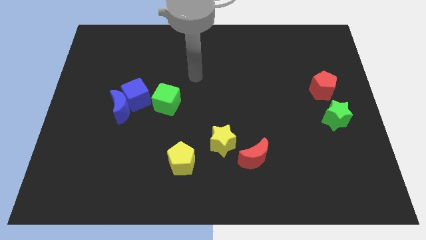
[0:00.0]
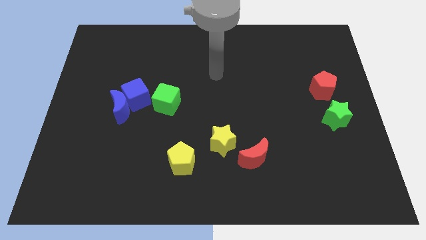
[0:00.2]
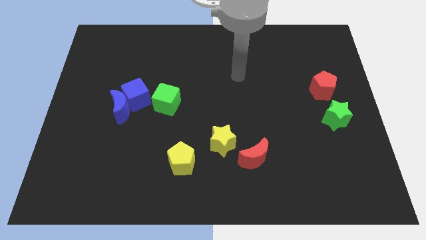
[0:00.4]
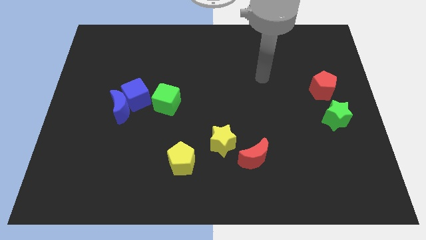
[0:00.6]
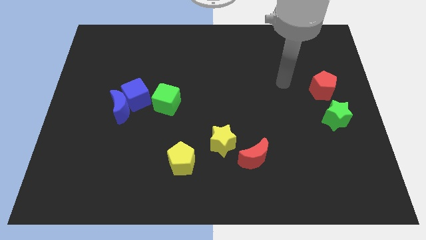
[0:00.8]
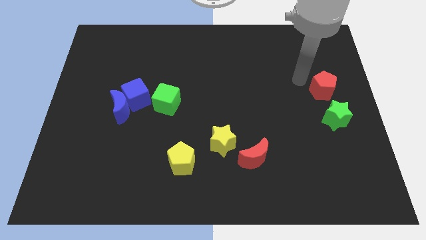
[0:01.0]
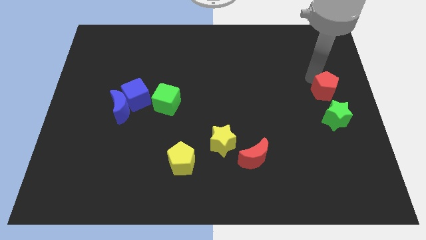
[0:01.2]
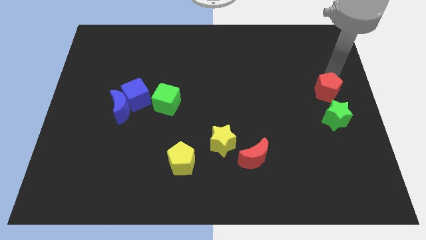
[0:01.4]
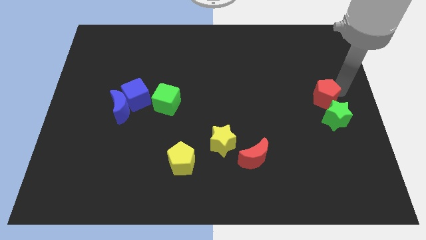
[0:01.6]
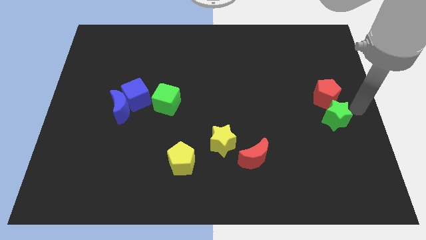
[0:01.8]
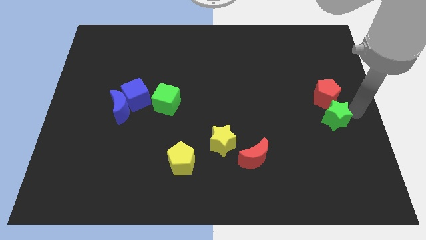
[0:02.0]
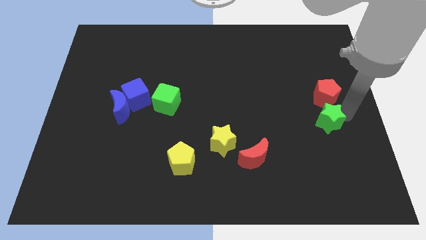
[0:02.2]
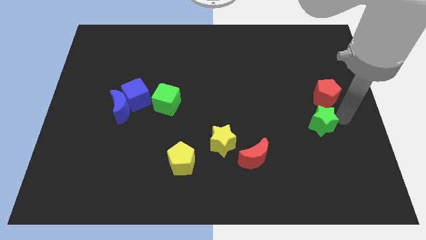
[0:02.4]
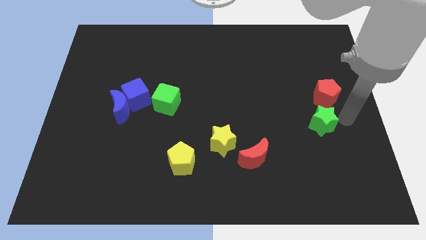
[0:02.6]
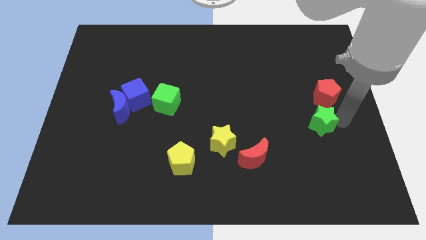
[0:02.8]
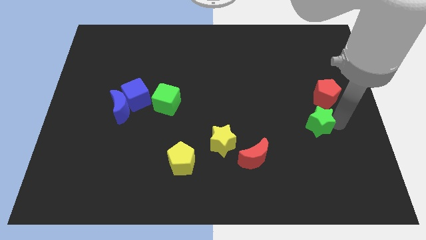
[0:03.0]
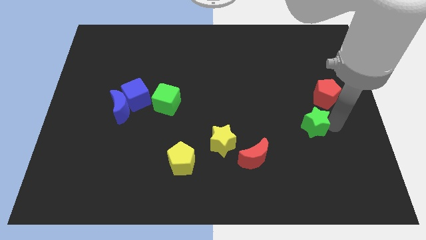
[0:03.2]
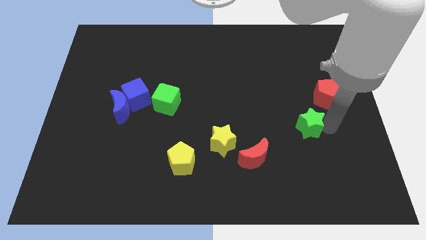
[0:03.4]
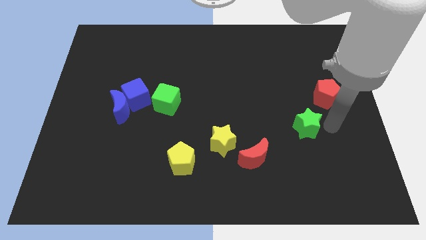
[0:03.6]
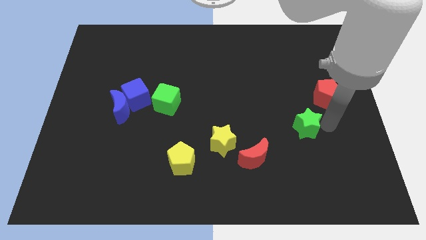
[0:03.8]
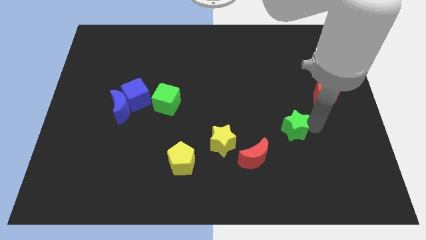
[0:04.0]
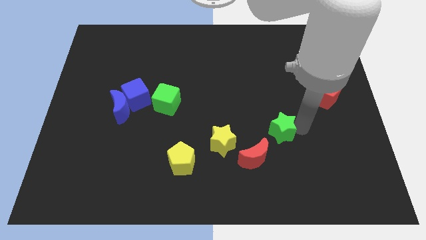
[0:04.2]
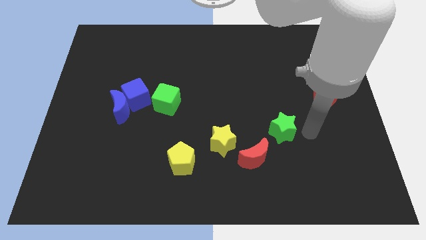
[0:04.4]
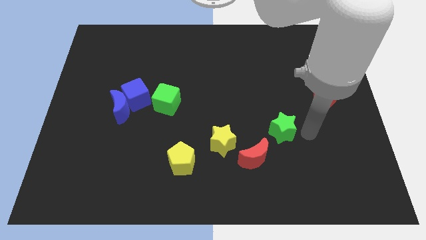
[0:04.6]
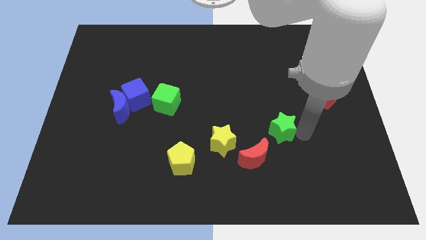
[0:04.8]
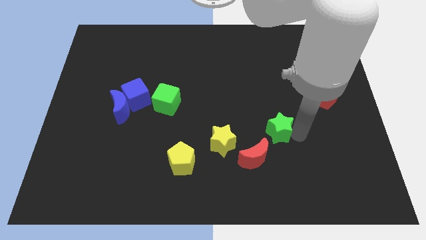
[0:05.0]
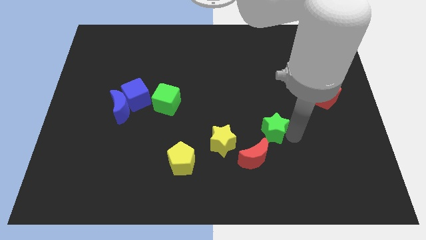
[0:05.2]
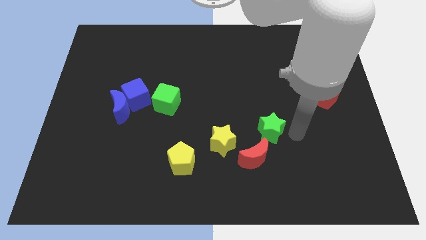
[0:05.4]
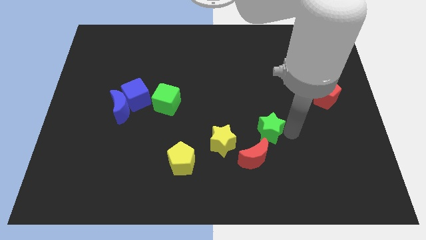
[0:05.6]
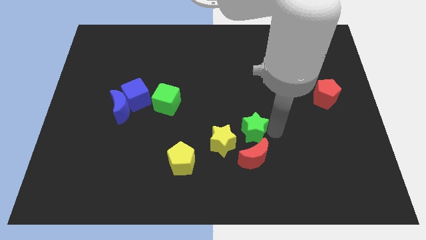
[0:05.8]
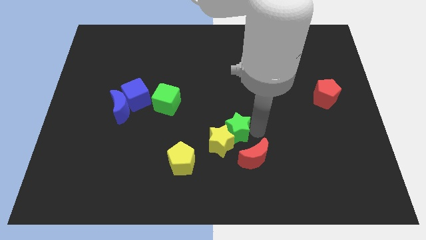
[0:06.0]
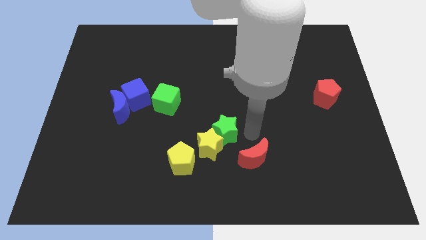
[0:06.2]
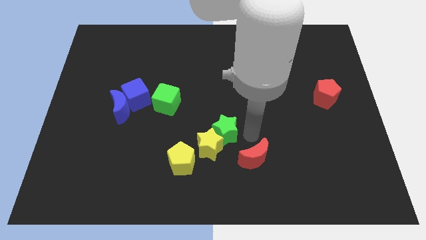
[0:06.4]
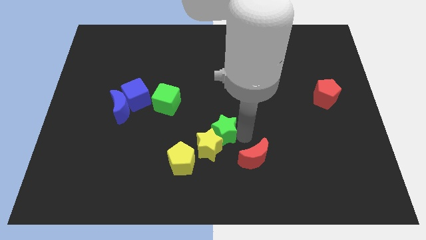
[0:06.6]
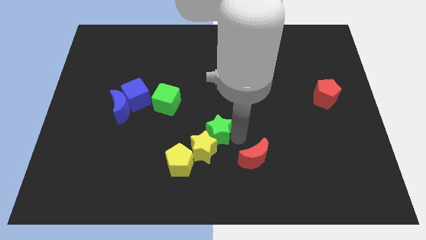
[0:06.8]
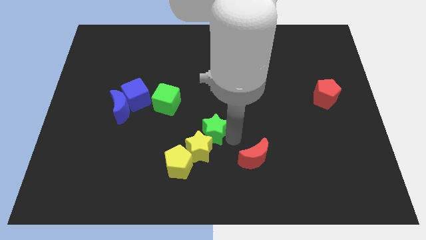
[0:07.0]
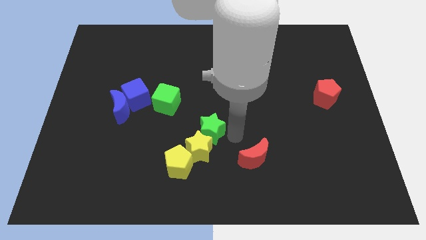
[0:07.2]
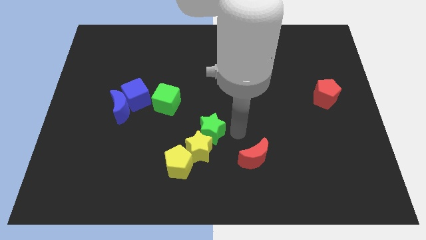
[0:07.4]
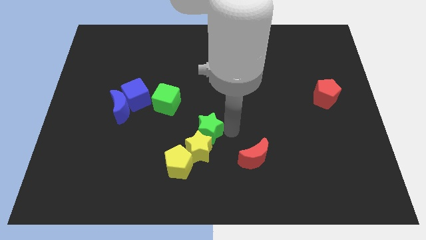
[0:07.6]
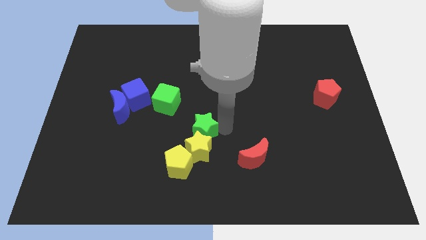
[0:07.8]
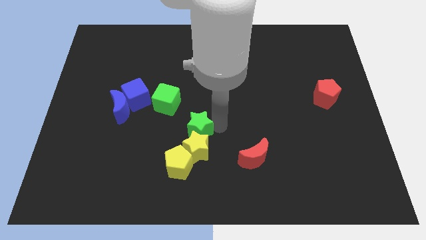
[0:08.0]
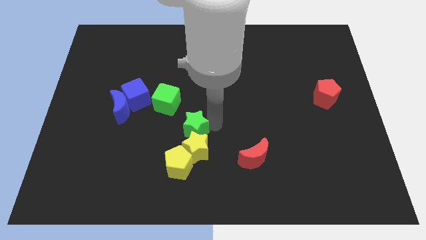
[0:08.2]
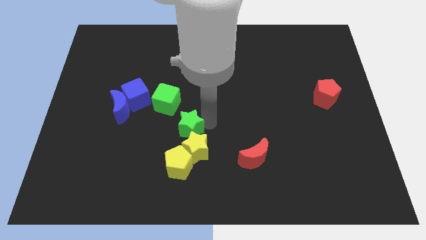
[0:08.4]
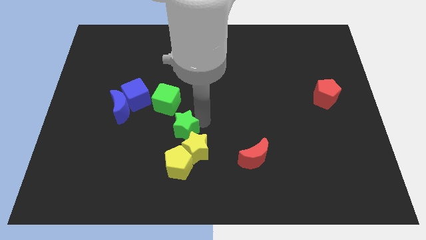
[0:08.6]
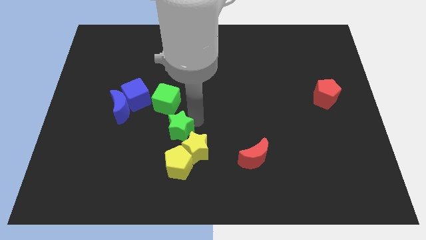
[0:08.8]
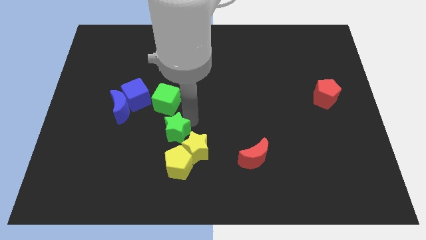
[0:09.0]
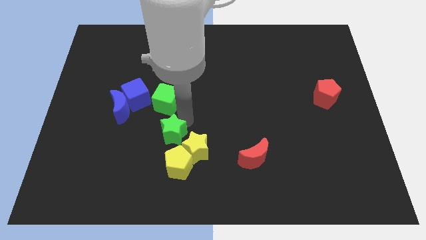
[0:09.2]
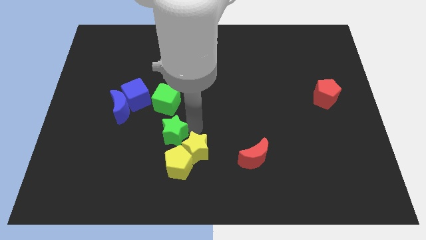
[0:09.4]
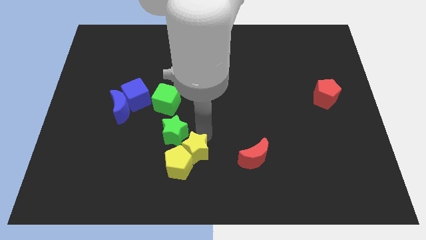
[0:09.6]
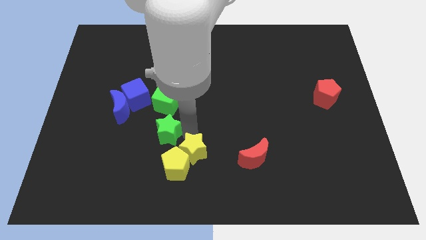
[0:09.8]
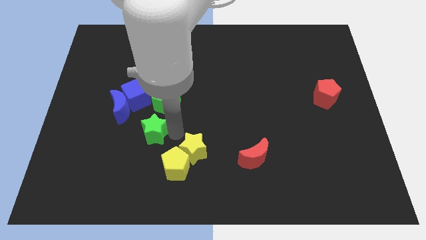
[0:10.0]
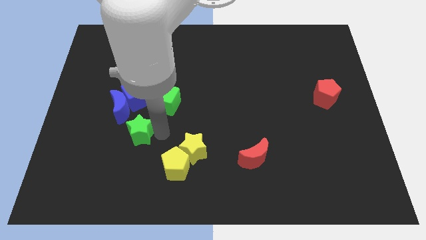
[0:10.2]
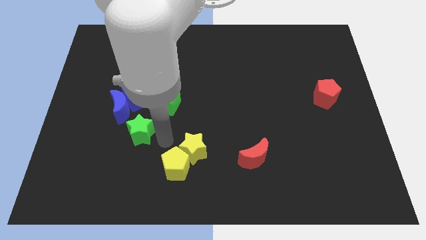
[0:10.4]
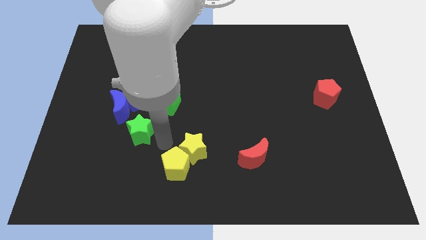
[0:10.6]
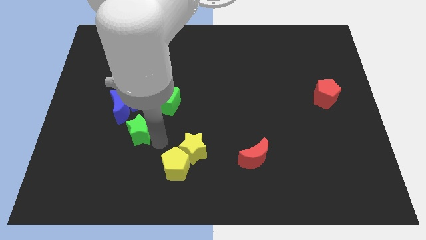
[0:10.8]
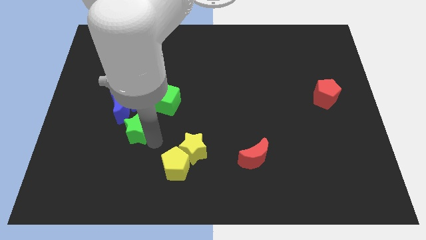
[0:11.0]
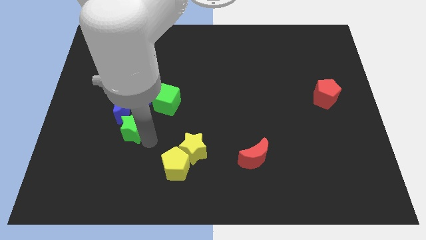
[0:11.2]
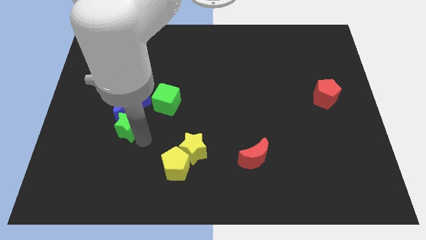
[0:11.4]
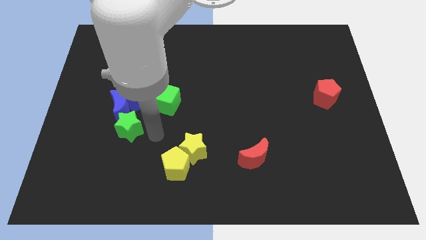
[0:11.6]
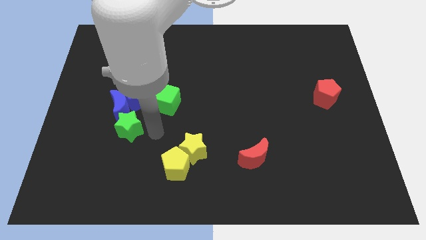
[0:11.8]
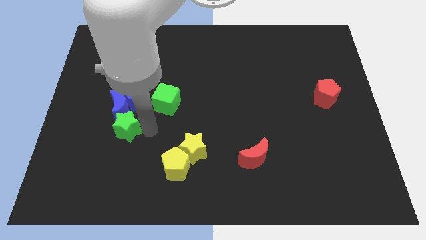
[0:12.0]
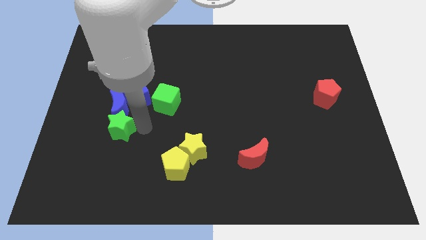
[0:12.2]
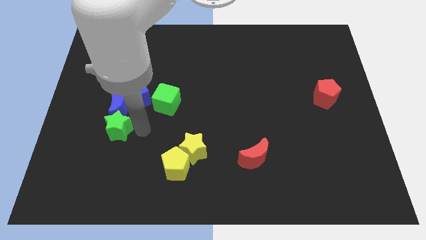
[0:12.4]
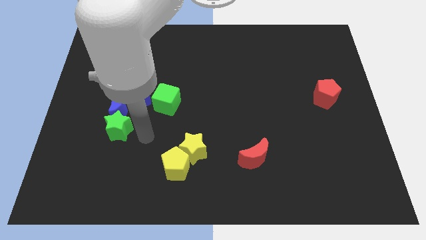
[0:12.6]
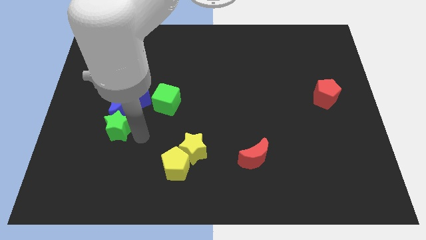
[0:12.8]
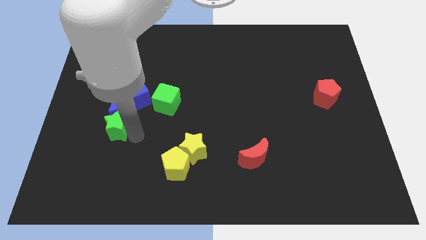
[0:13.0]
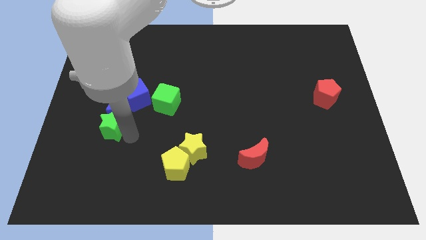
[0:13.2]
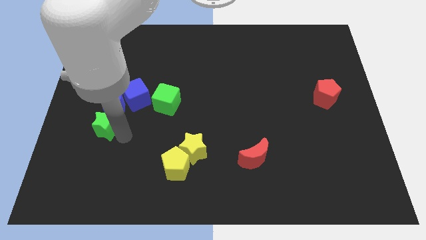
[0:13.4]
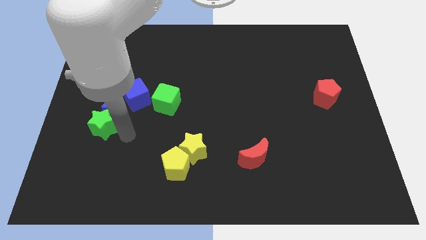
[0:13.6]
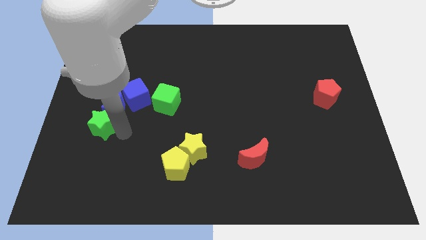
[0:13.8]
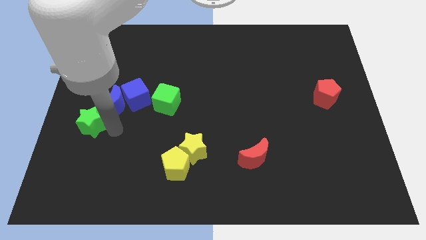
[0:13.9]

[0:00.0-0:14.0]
move the green star to the left side

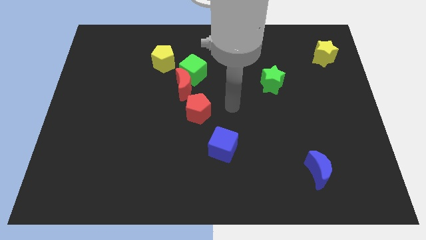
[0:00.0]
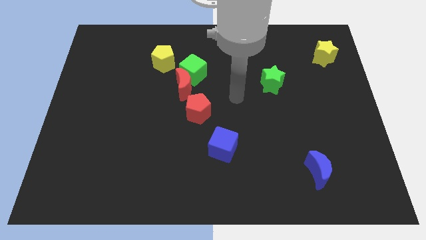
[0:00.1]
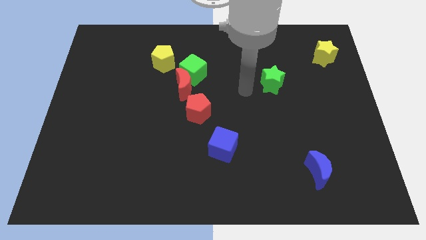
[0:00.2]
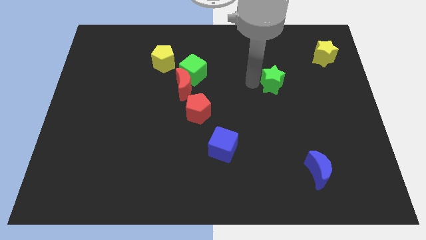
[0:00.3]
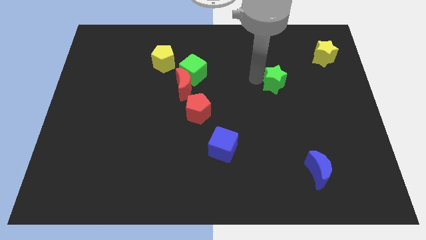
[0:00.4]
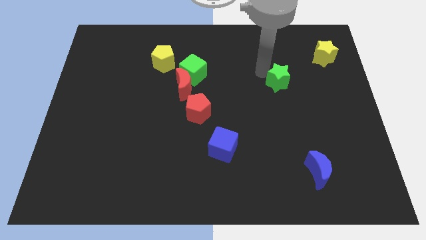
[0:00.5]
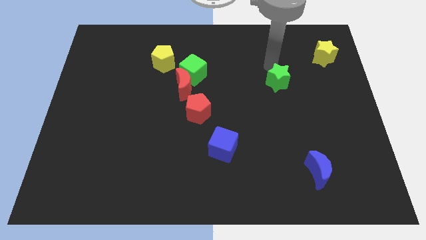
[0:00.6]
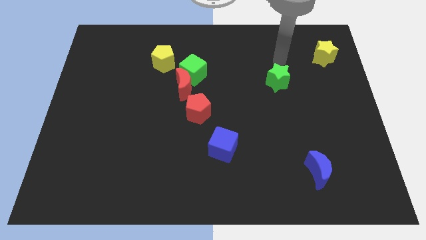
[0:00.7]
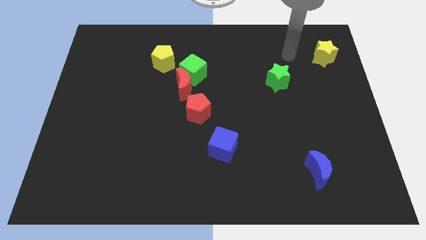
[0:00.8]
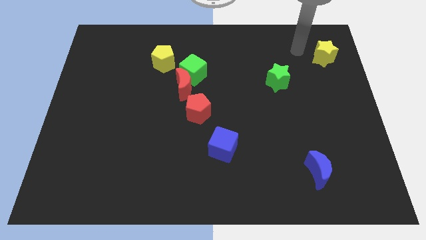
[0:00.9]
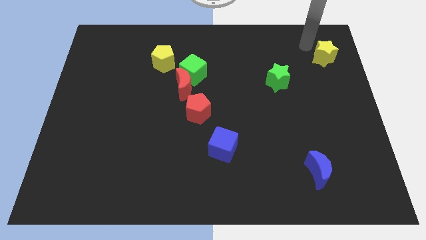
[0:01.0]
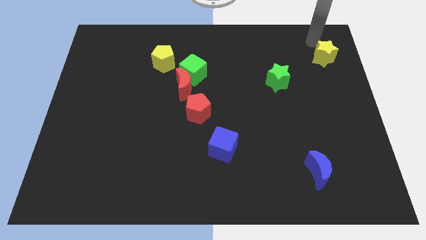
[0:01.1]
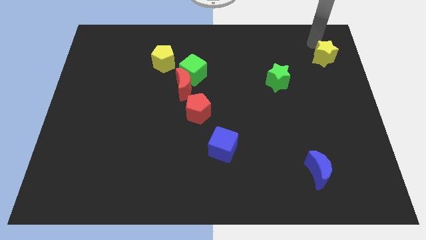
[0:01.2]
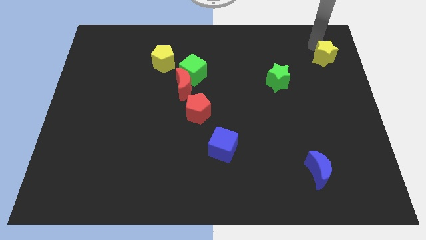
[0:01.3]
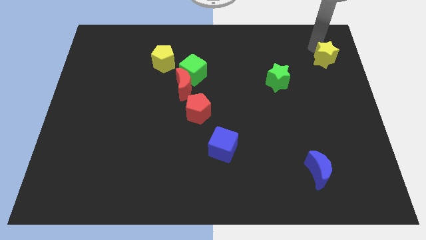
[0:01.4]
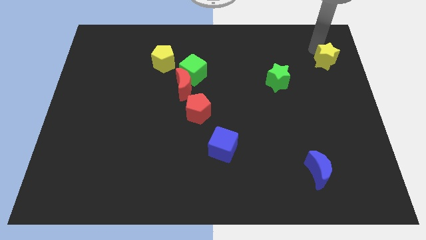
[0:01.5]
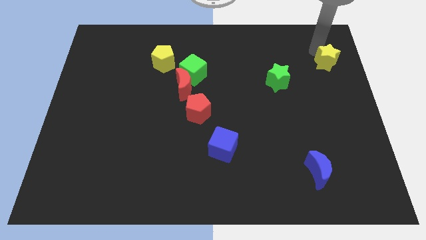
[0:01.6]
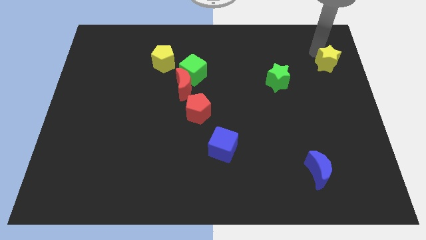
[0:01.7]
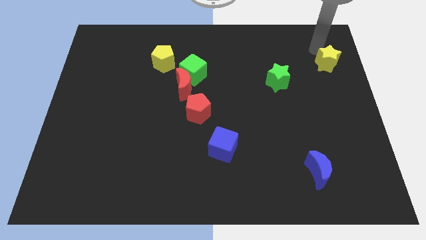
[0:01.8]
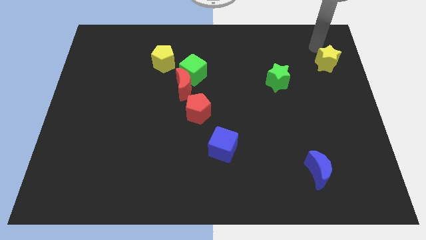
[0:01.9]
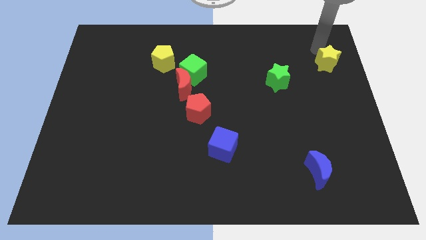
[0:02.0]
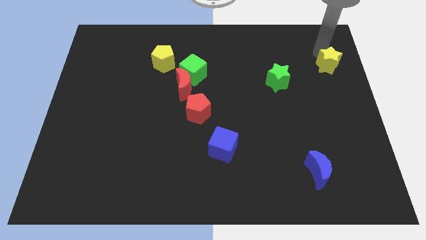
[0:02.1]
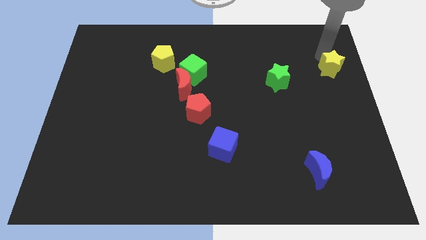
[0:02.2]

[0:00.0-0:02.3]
slide the yellow star to the center right
